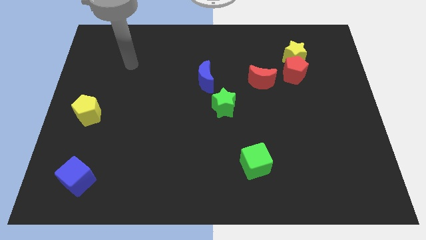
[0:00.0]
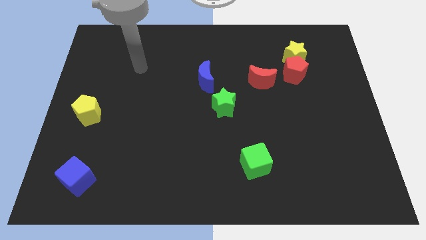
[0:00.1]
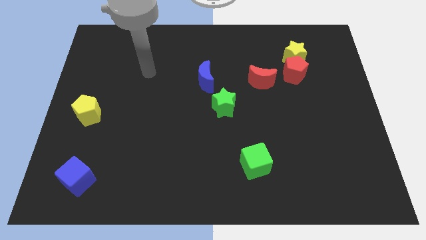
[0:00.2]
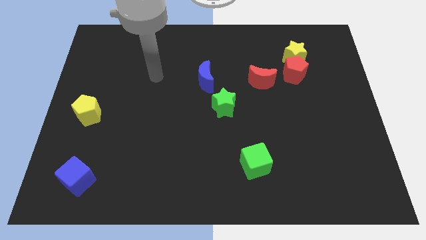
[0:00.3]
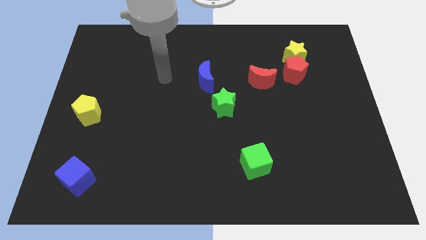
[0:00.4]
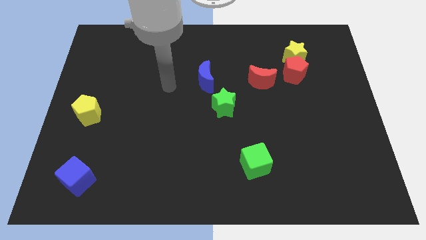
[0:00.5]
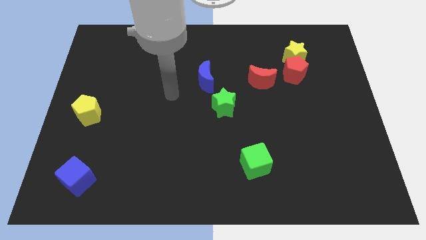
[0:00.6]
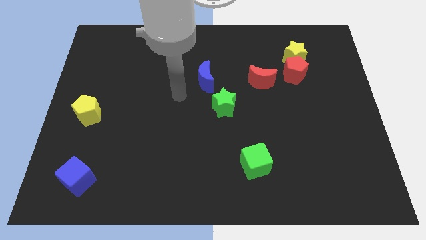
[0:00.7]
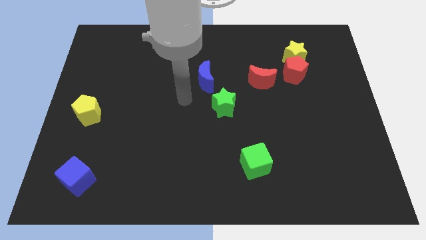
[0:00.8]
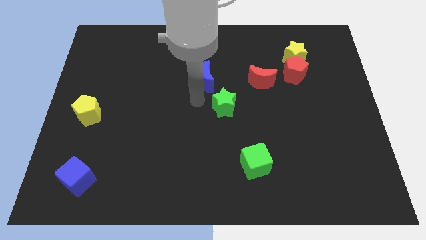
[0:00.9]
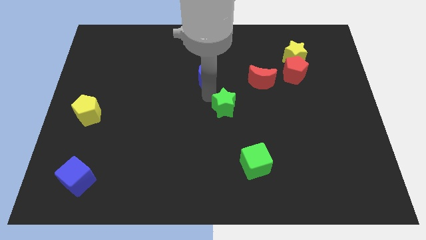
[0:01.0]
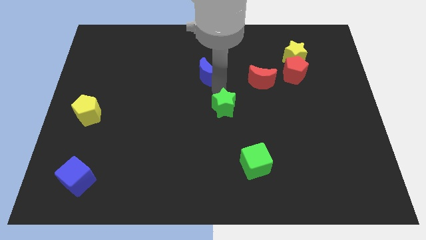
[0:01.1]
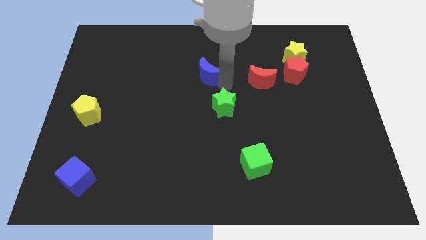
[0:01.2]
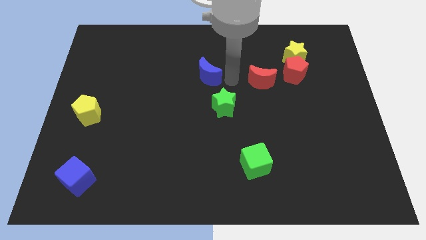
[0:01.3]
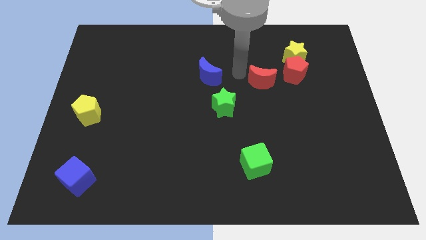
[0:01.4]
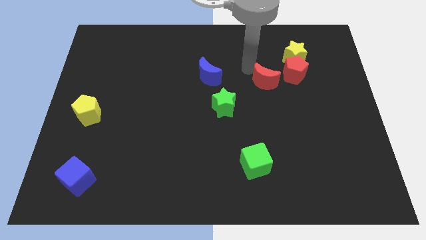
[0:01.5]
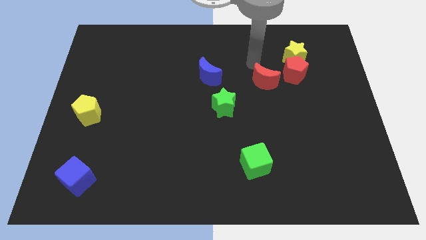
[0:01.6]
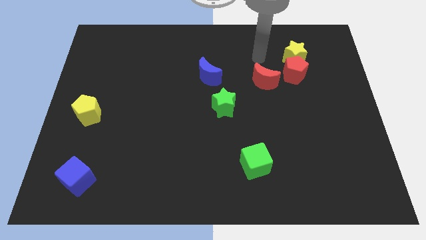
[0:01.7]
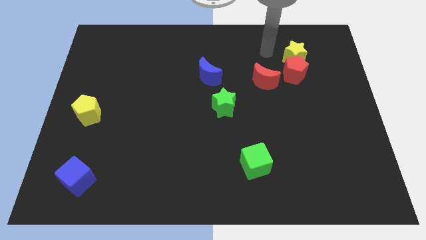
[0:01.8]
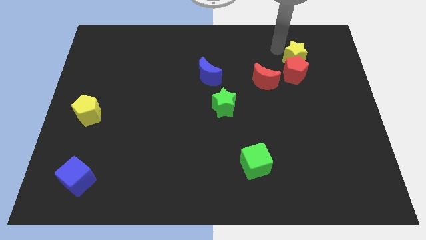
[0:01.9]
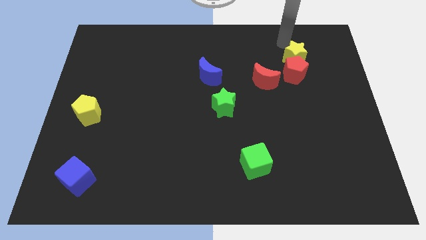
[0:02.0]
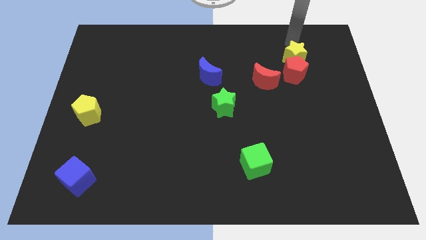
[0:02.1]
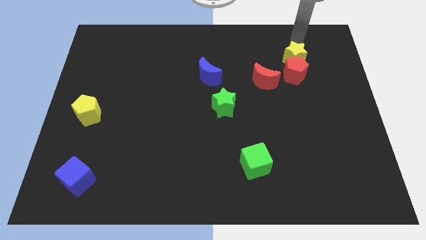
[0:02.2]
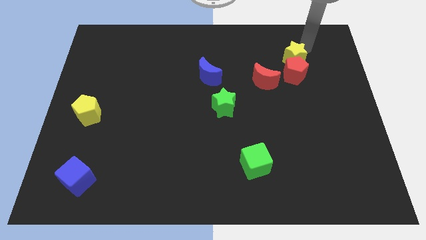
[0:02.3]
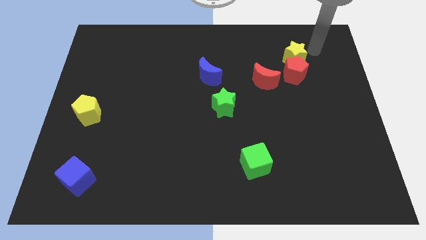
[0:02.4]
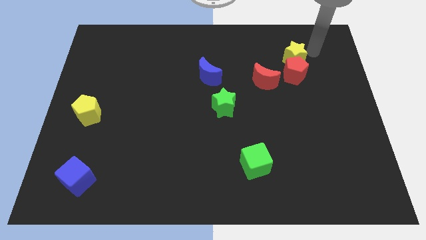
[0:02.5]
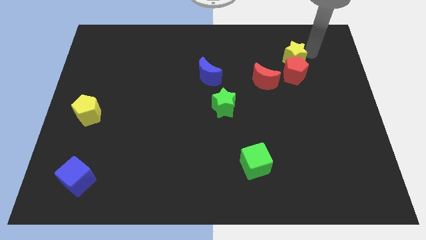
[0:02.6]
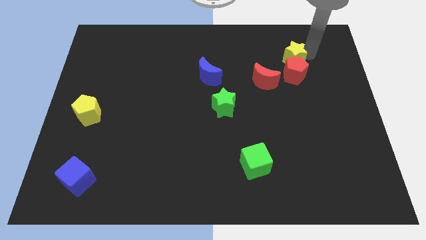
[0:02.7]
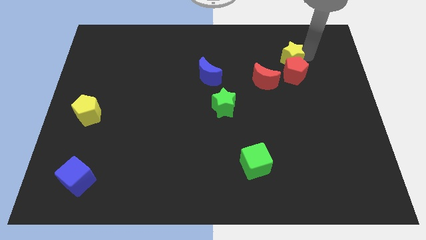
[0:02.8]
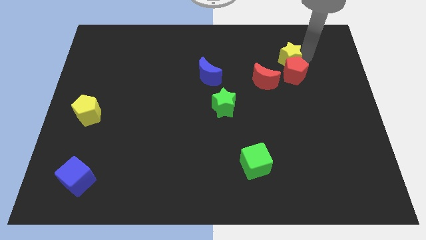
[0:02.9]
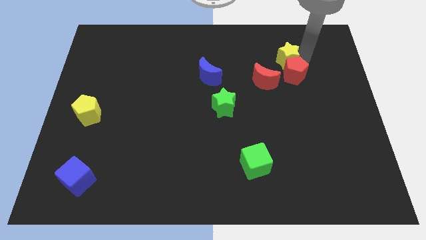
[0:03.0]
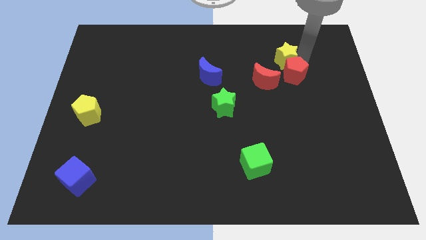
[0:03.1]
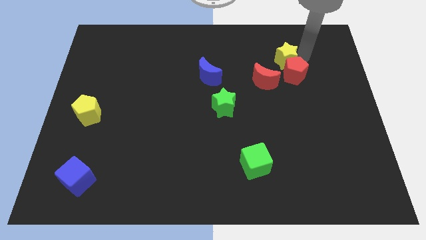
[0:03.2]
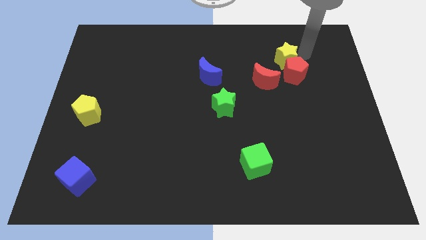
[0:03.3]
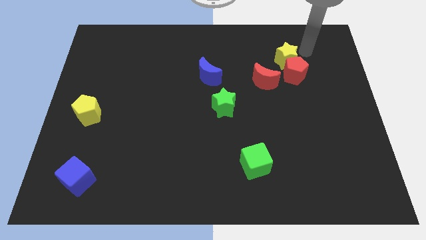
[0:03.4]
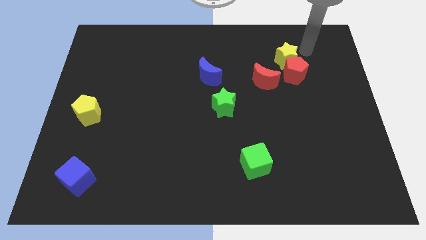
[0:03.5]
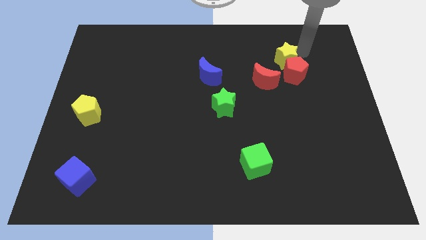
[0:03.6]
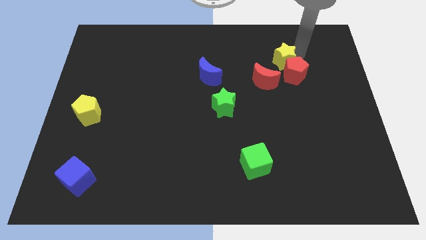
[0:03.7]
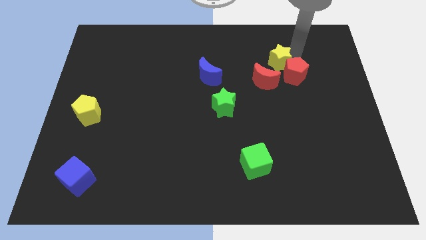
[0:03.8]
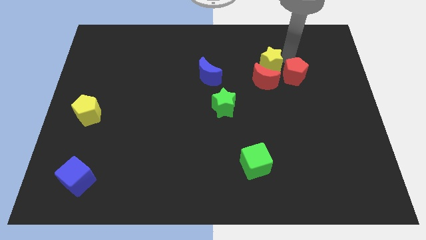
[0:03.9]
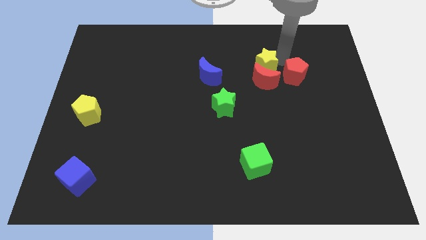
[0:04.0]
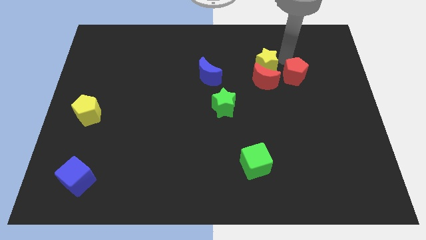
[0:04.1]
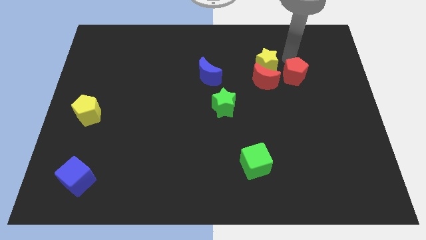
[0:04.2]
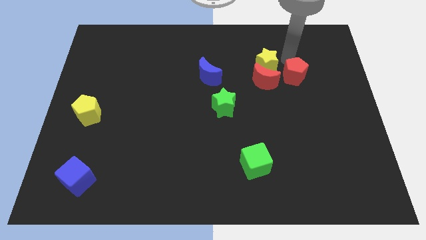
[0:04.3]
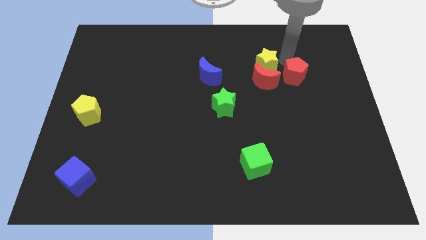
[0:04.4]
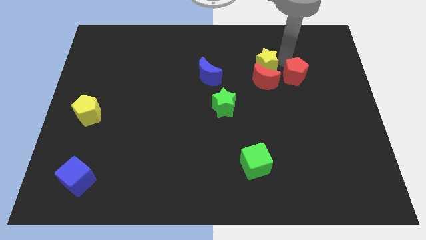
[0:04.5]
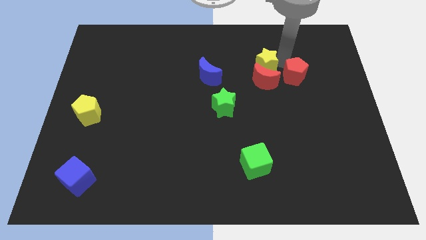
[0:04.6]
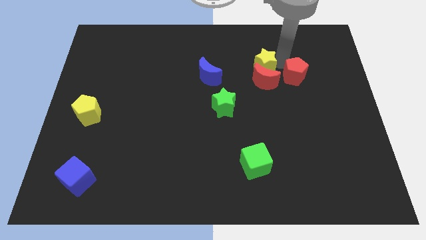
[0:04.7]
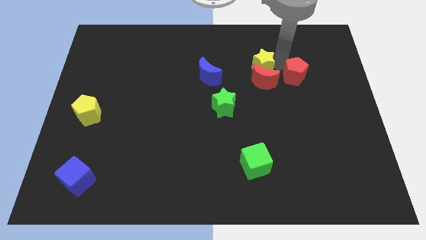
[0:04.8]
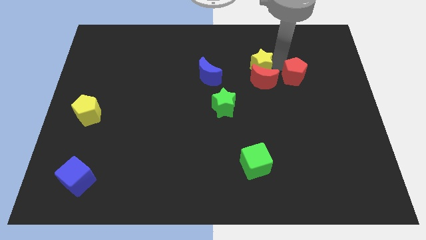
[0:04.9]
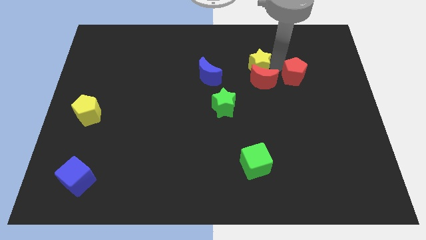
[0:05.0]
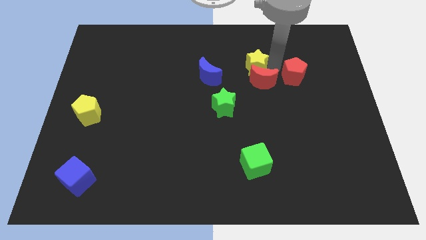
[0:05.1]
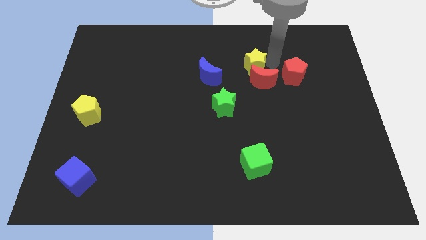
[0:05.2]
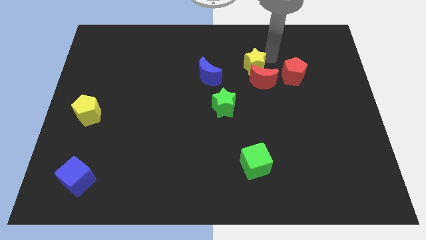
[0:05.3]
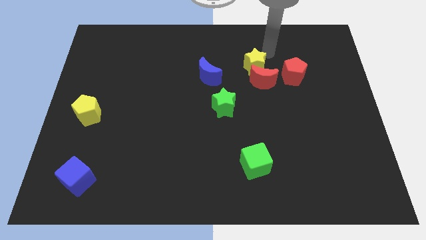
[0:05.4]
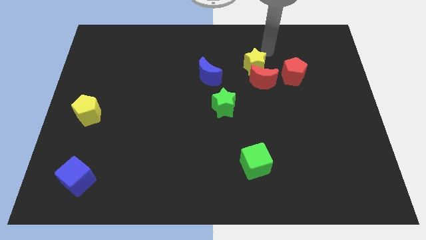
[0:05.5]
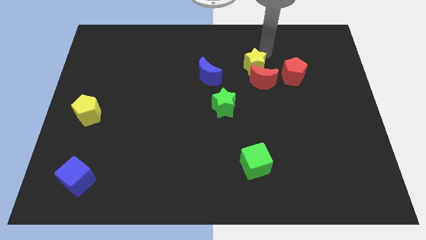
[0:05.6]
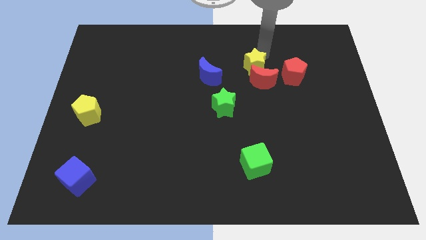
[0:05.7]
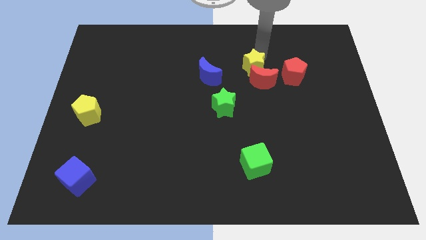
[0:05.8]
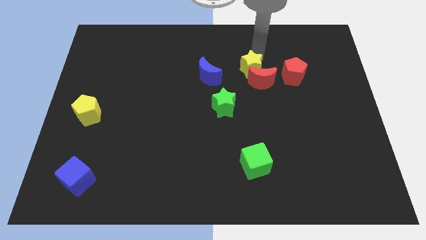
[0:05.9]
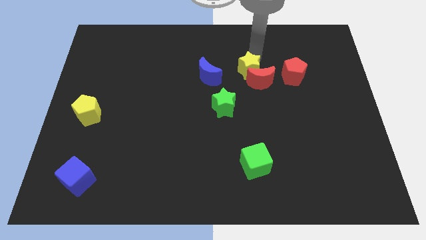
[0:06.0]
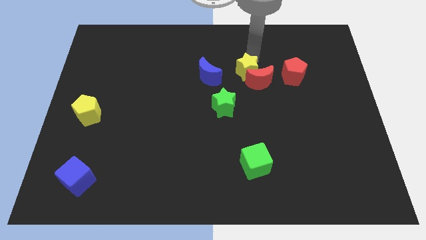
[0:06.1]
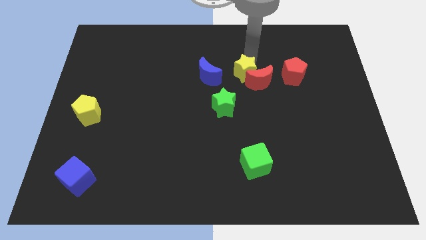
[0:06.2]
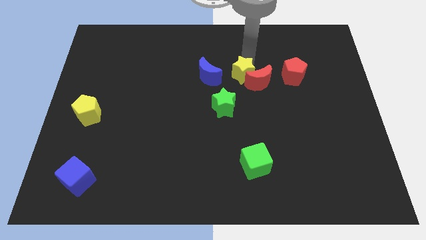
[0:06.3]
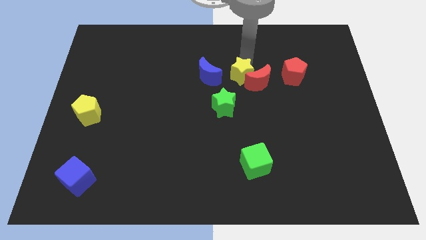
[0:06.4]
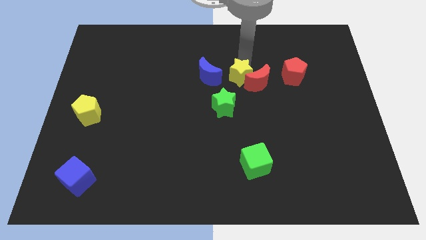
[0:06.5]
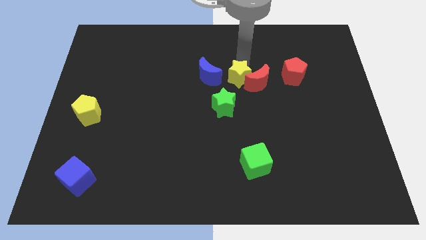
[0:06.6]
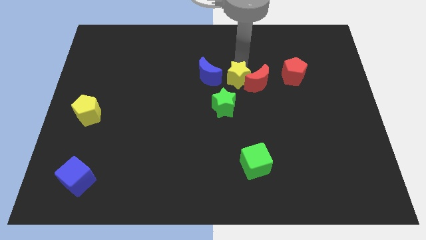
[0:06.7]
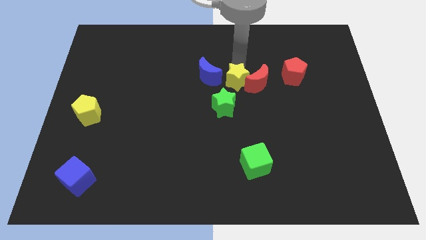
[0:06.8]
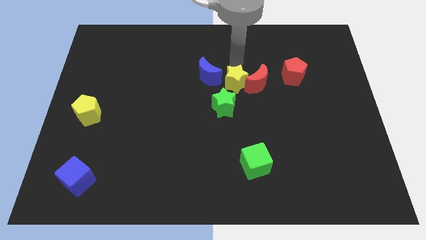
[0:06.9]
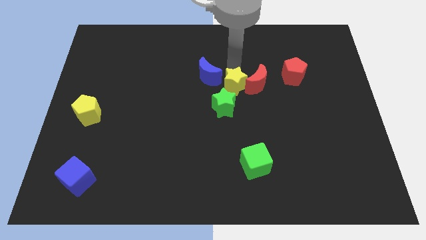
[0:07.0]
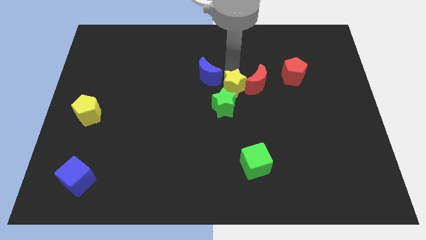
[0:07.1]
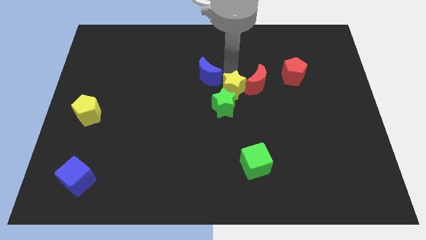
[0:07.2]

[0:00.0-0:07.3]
move the yellow star to the green star
